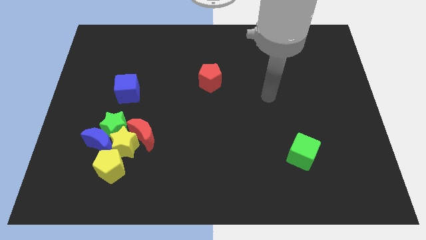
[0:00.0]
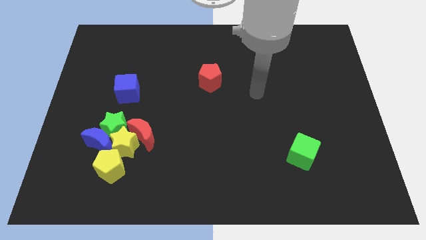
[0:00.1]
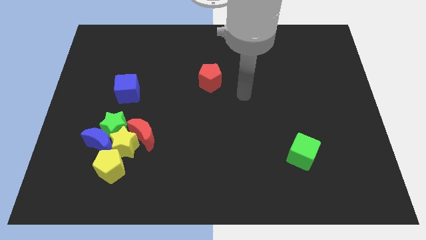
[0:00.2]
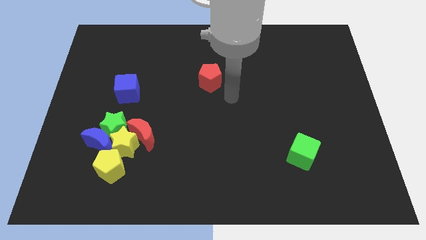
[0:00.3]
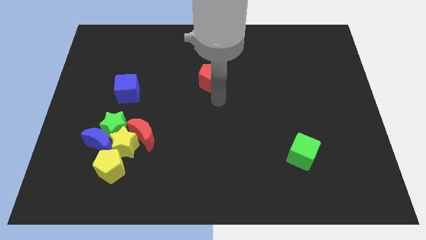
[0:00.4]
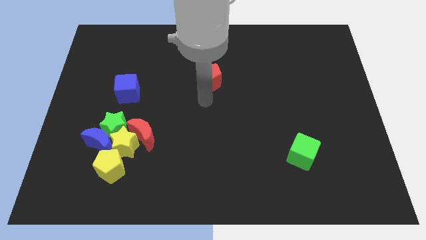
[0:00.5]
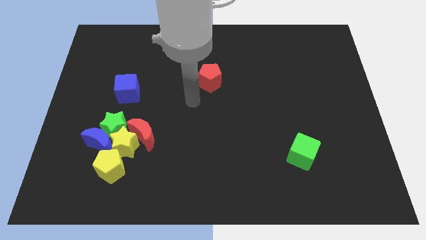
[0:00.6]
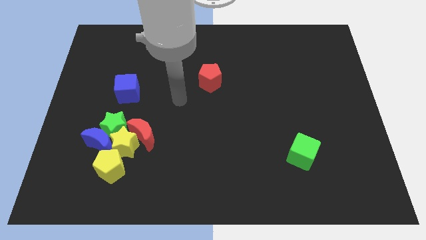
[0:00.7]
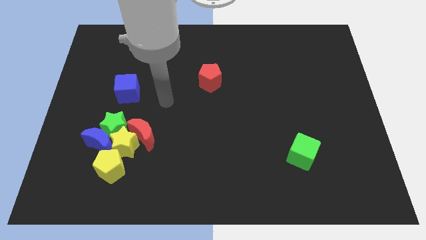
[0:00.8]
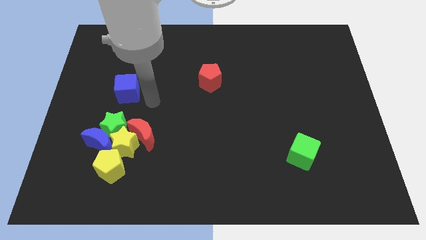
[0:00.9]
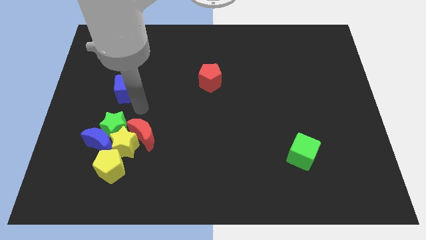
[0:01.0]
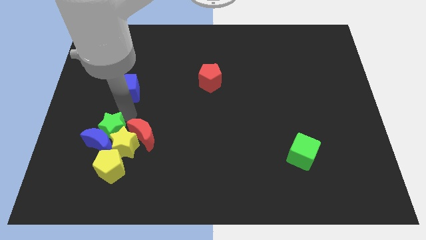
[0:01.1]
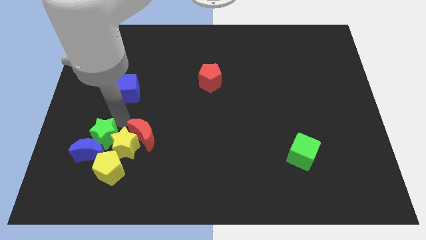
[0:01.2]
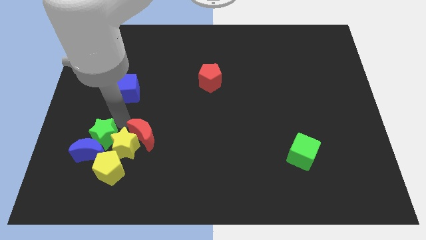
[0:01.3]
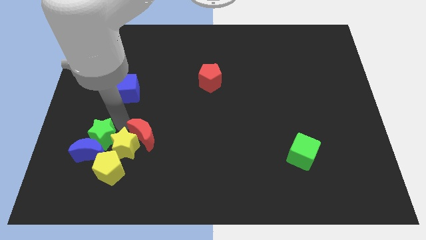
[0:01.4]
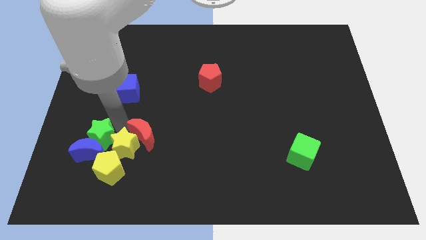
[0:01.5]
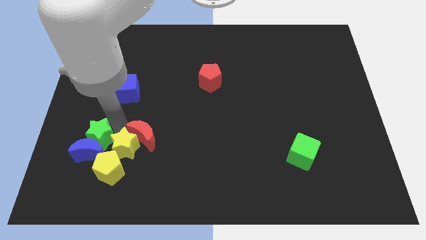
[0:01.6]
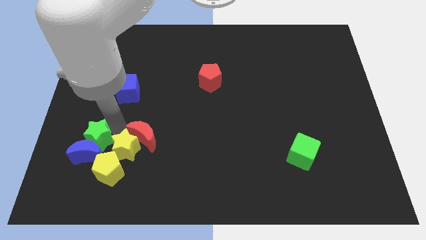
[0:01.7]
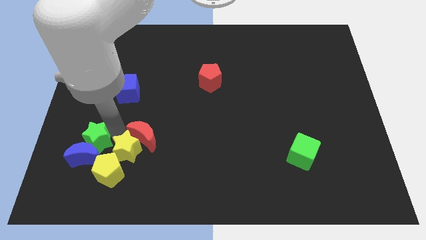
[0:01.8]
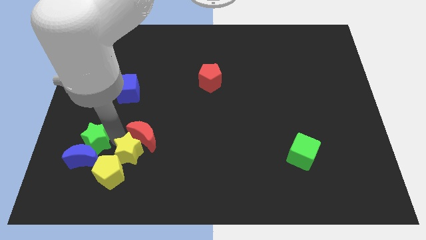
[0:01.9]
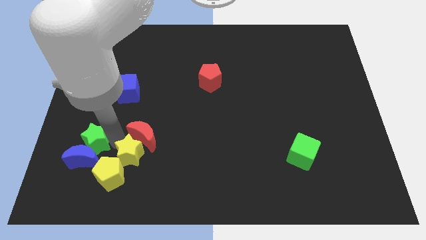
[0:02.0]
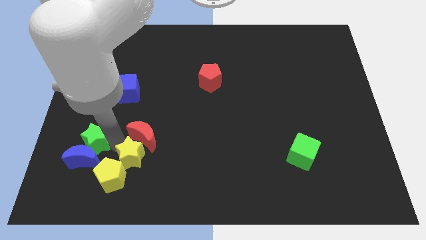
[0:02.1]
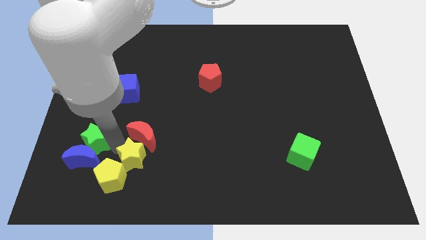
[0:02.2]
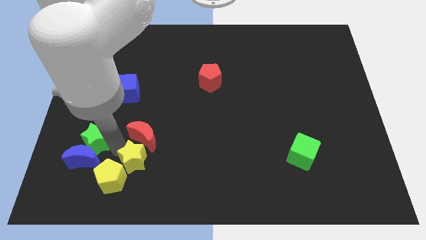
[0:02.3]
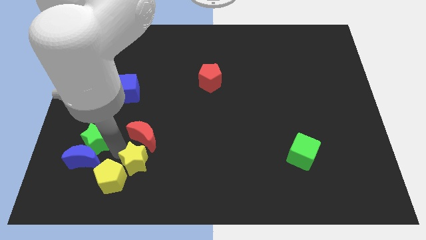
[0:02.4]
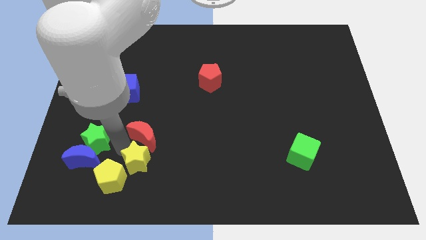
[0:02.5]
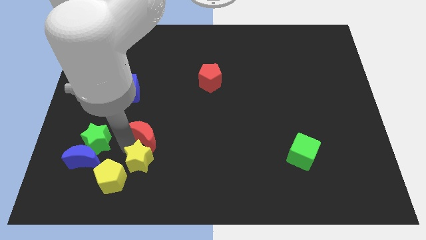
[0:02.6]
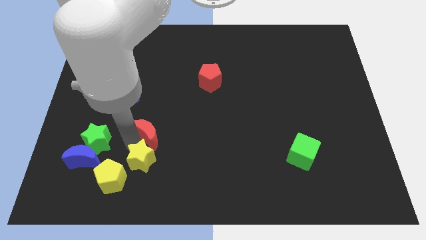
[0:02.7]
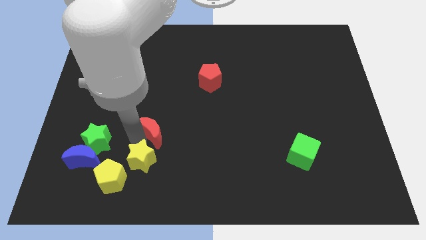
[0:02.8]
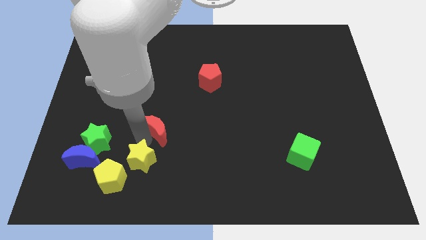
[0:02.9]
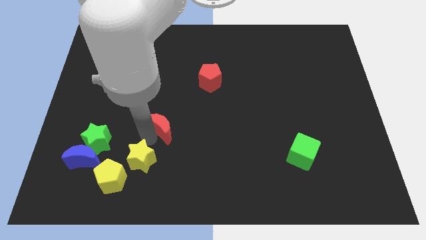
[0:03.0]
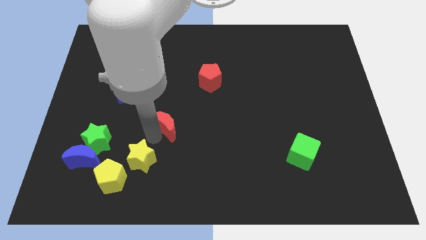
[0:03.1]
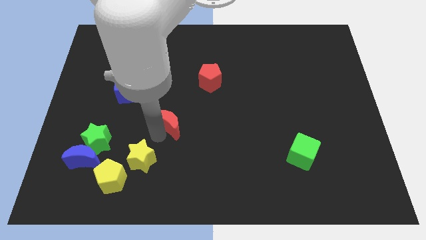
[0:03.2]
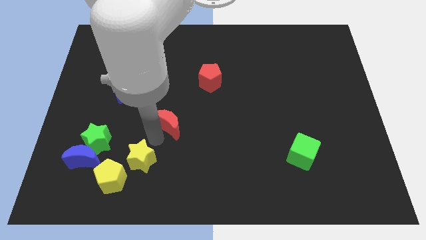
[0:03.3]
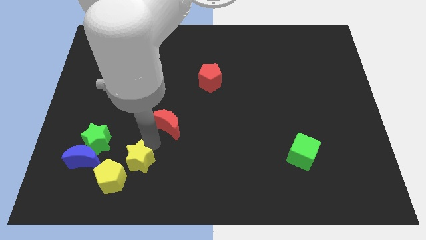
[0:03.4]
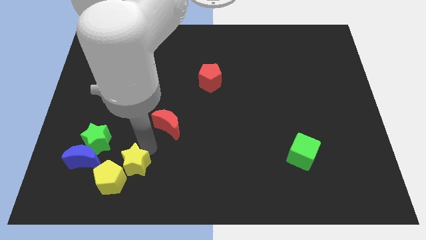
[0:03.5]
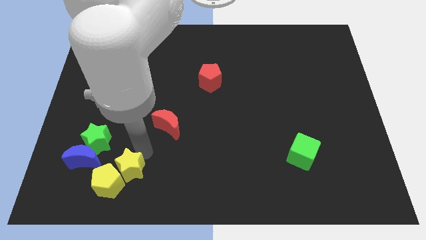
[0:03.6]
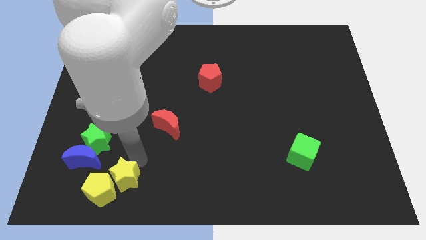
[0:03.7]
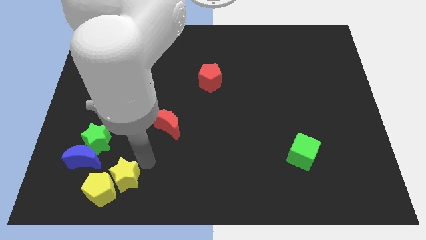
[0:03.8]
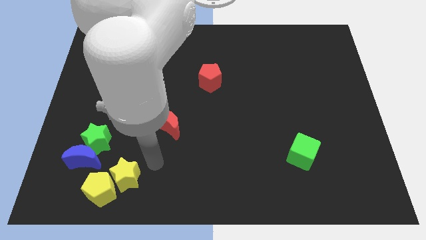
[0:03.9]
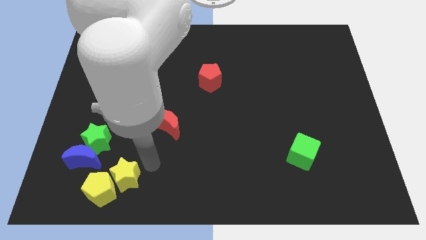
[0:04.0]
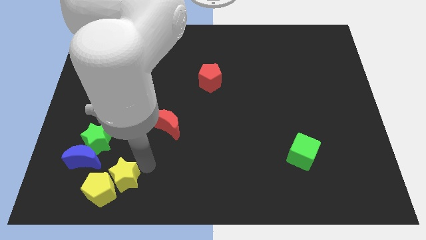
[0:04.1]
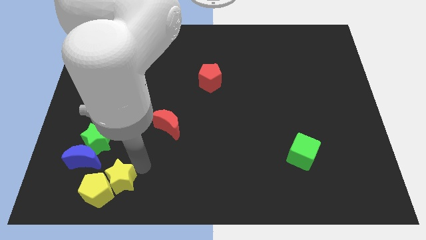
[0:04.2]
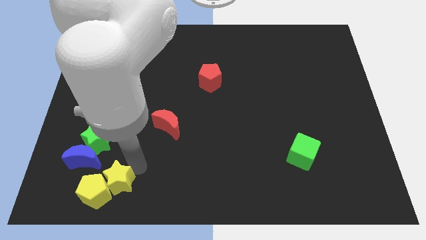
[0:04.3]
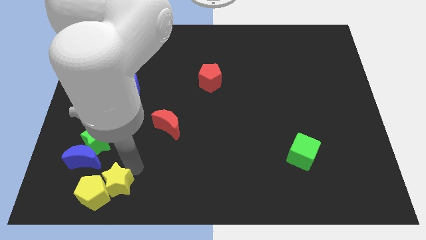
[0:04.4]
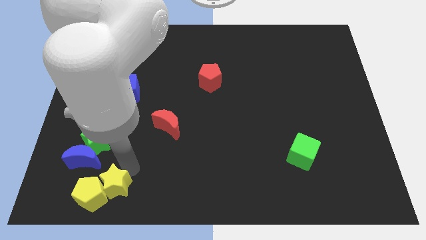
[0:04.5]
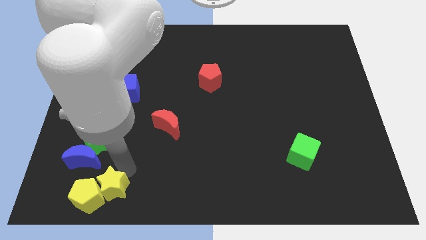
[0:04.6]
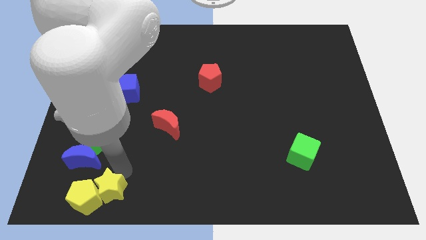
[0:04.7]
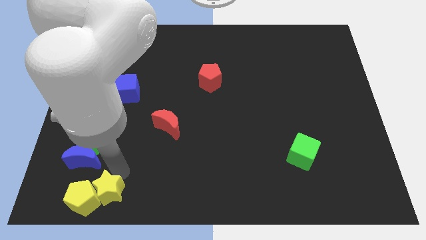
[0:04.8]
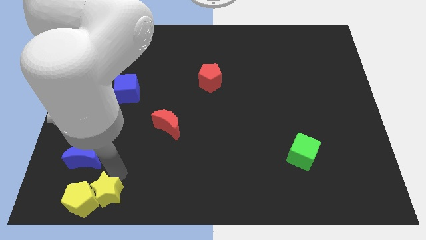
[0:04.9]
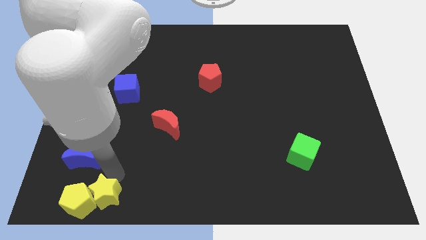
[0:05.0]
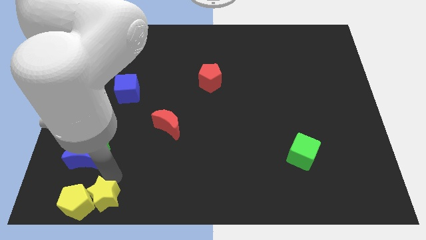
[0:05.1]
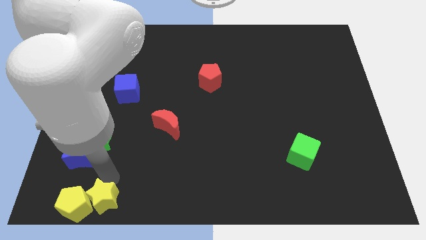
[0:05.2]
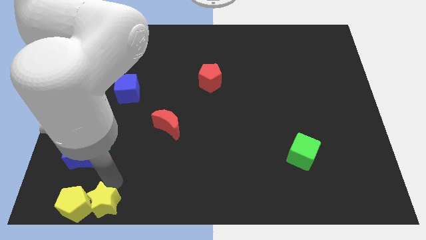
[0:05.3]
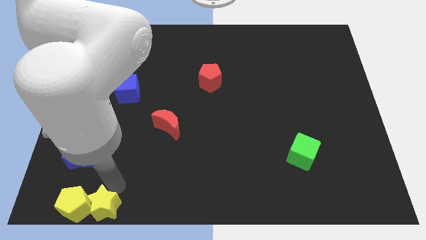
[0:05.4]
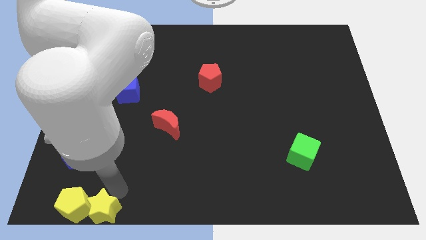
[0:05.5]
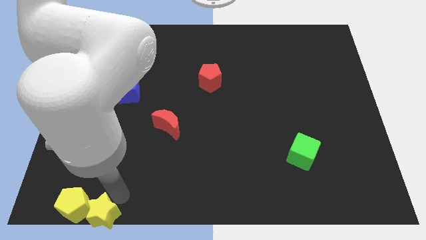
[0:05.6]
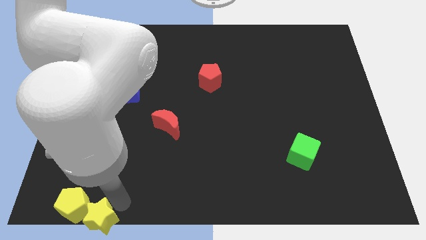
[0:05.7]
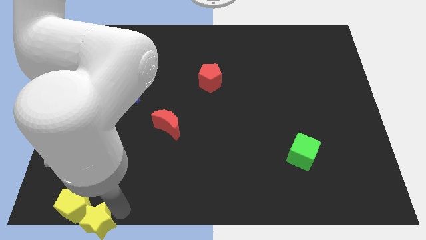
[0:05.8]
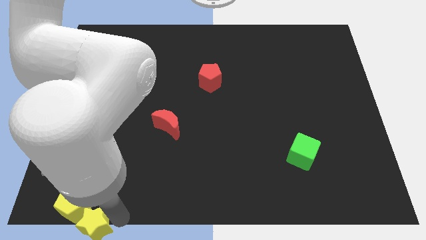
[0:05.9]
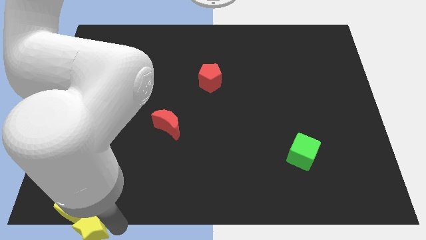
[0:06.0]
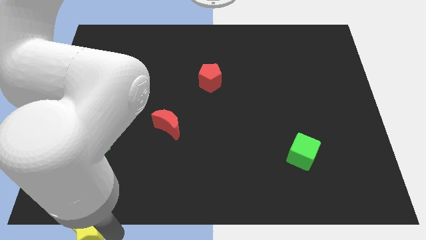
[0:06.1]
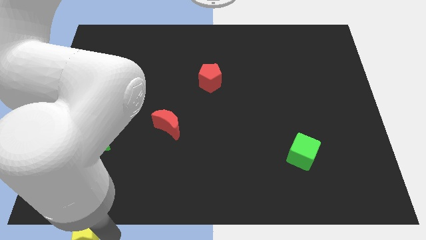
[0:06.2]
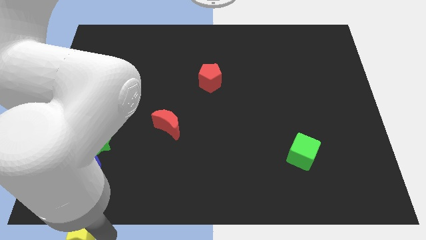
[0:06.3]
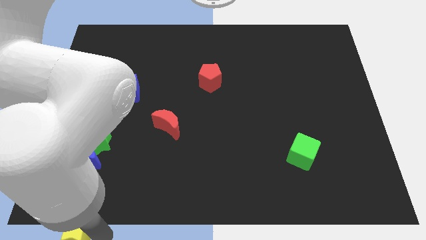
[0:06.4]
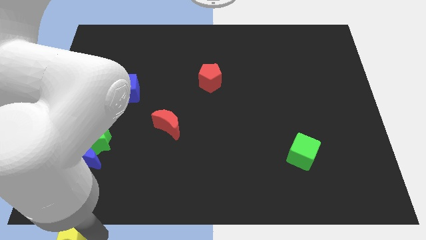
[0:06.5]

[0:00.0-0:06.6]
put the yellow star to the bottom left
